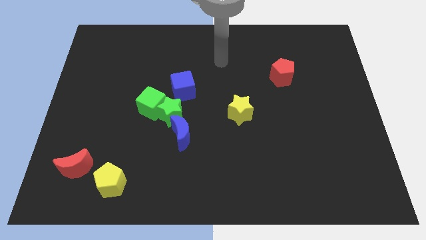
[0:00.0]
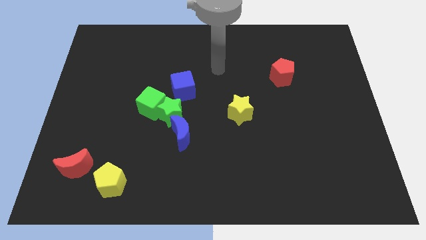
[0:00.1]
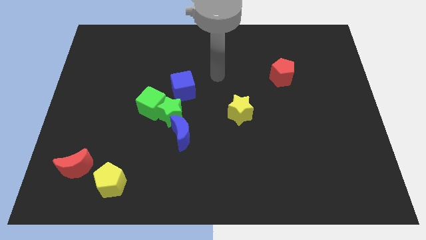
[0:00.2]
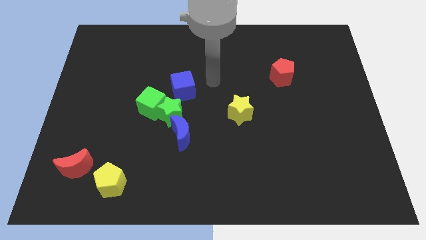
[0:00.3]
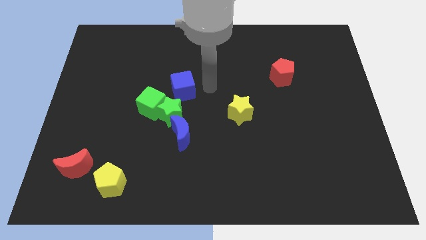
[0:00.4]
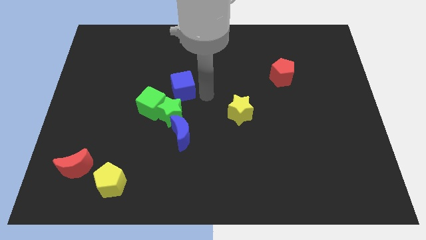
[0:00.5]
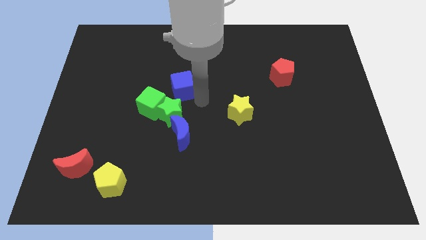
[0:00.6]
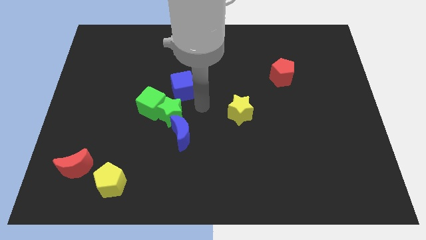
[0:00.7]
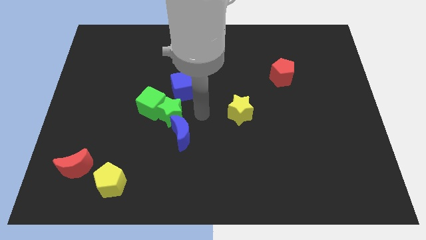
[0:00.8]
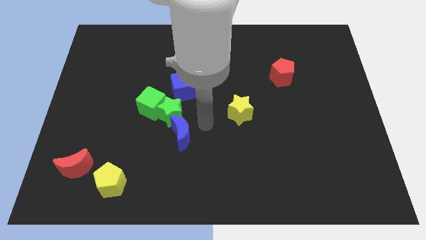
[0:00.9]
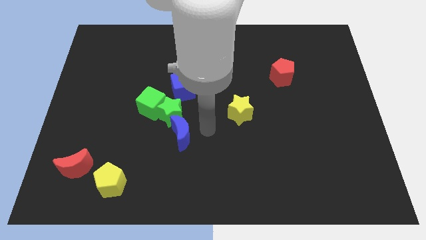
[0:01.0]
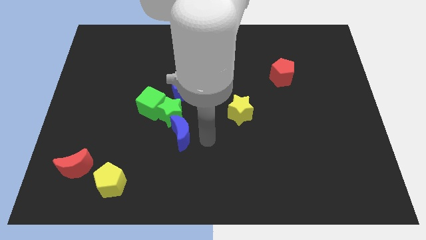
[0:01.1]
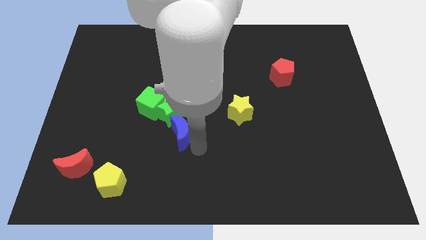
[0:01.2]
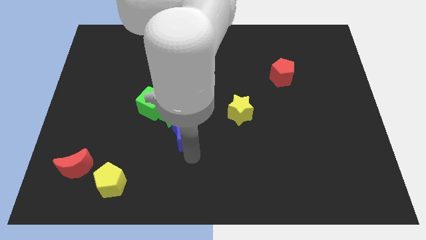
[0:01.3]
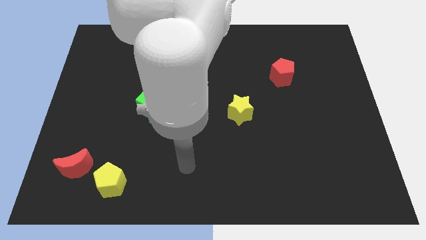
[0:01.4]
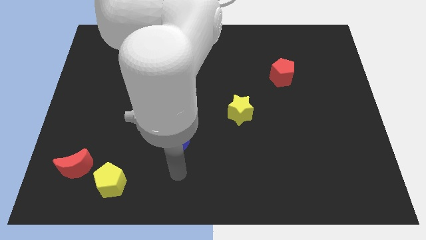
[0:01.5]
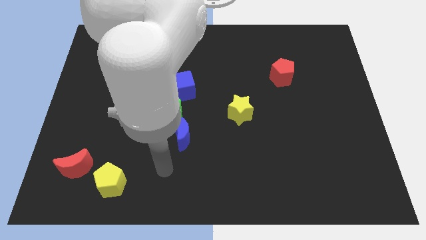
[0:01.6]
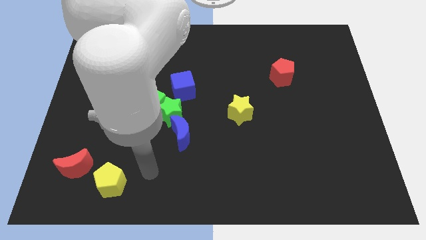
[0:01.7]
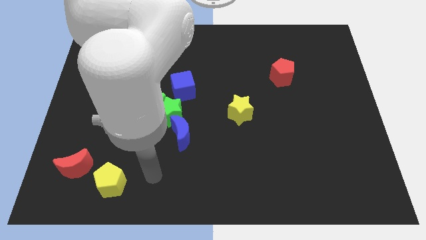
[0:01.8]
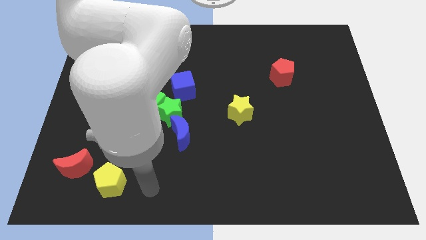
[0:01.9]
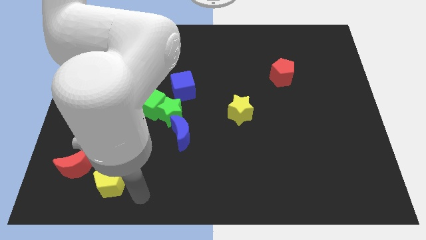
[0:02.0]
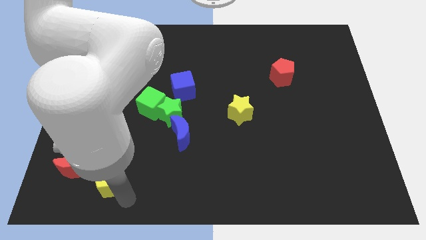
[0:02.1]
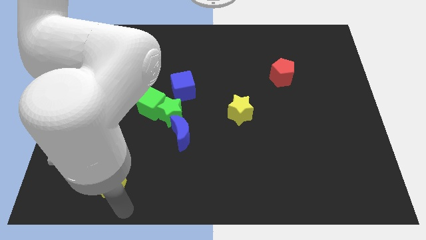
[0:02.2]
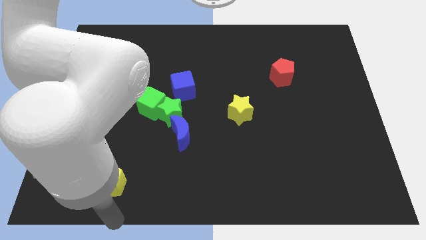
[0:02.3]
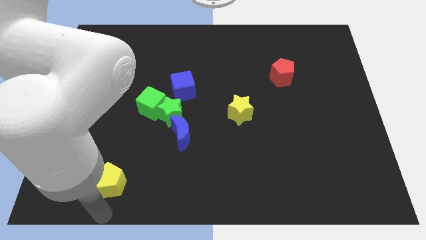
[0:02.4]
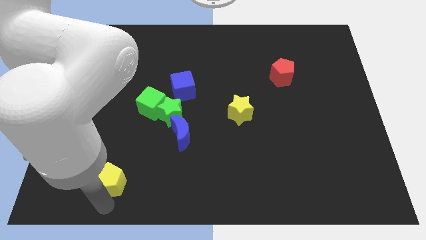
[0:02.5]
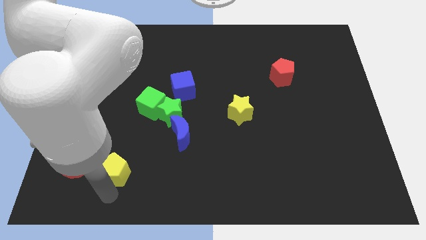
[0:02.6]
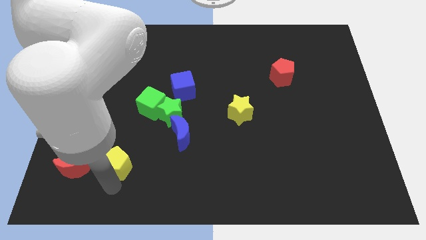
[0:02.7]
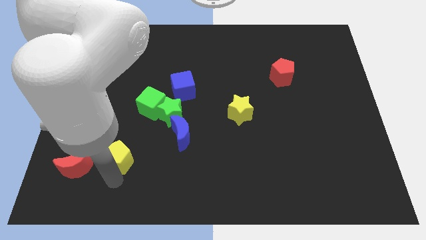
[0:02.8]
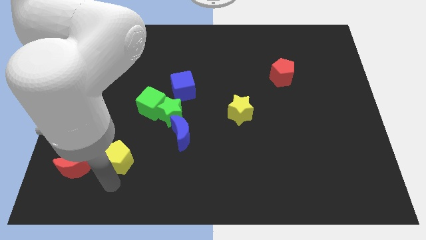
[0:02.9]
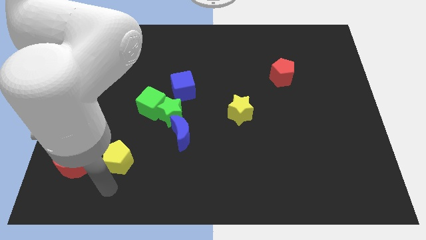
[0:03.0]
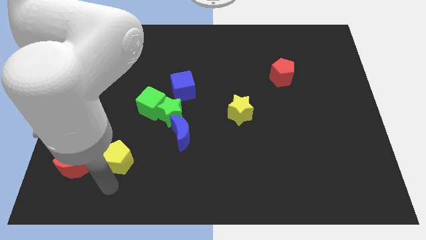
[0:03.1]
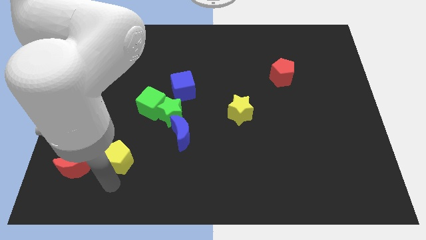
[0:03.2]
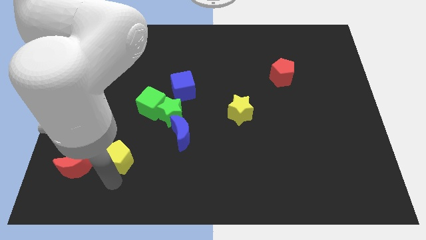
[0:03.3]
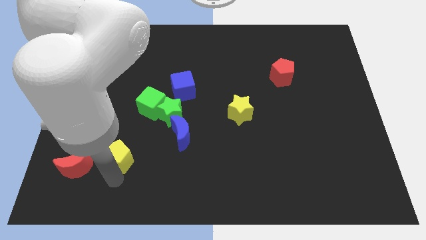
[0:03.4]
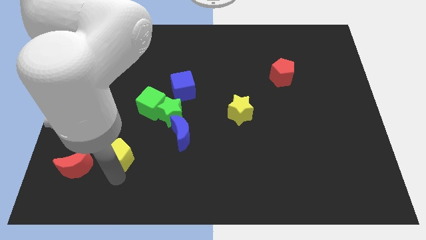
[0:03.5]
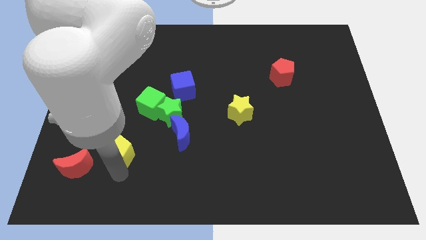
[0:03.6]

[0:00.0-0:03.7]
move the yellow pentagon upwards a little

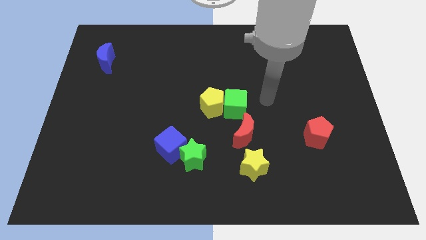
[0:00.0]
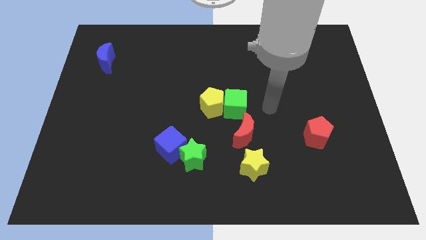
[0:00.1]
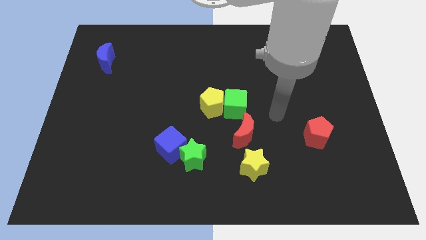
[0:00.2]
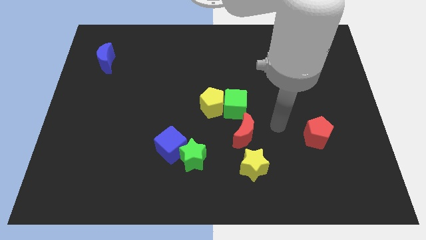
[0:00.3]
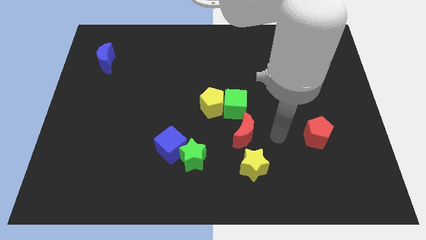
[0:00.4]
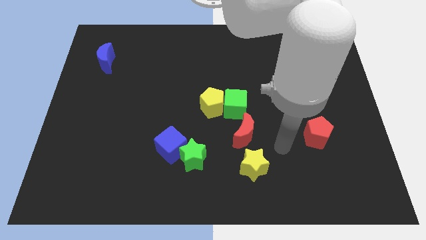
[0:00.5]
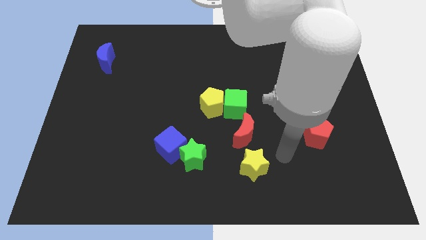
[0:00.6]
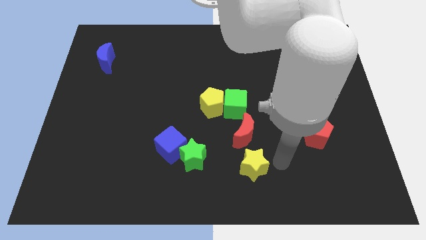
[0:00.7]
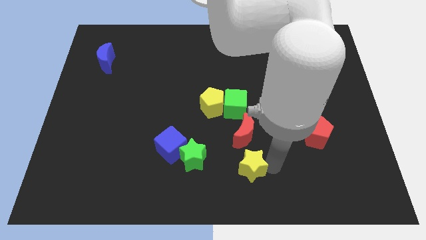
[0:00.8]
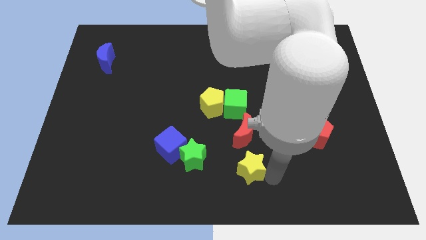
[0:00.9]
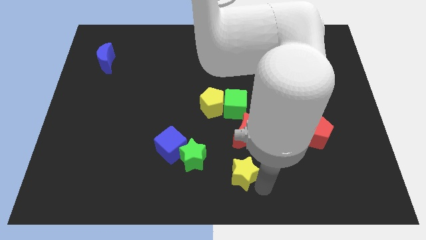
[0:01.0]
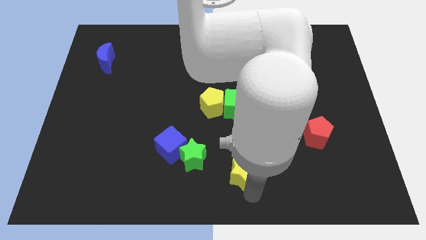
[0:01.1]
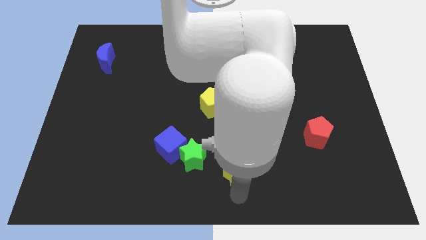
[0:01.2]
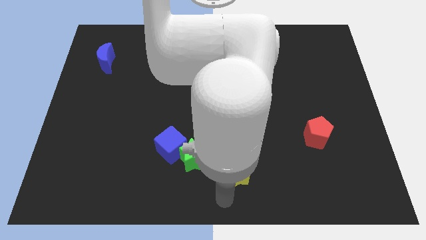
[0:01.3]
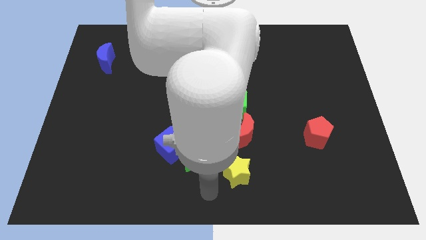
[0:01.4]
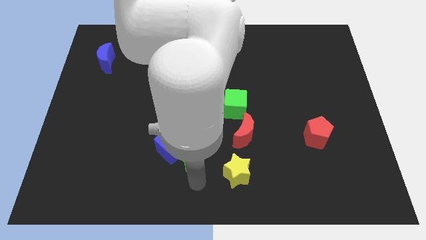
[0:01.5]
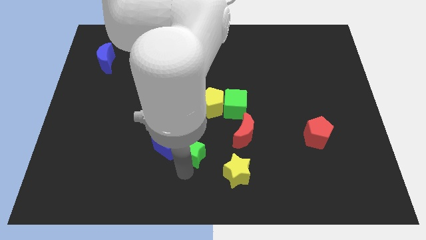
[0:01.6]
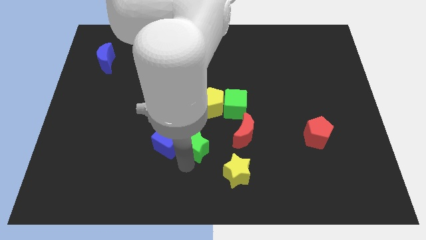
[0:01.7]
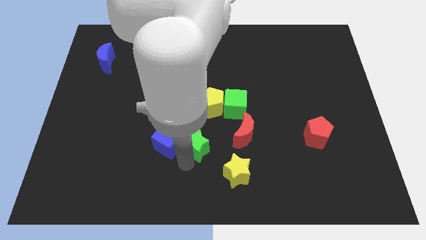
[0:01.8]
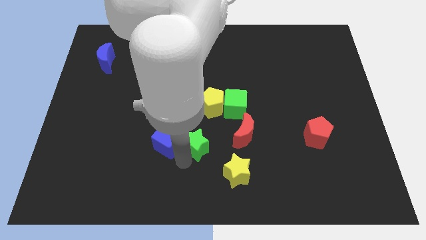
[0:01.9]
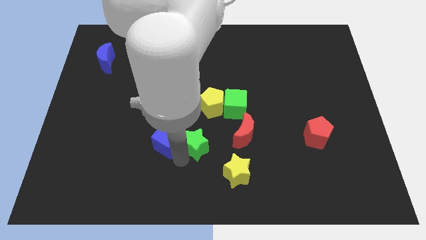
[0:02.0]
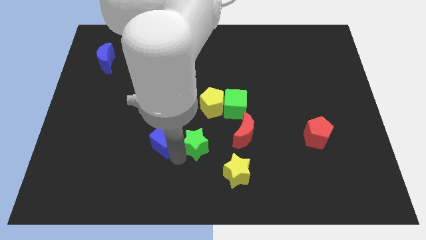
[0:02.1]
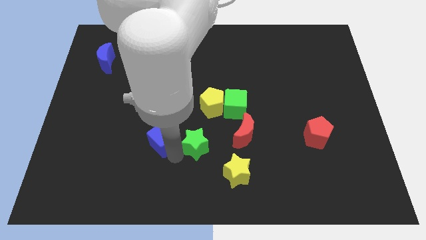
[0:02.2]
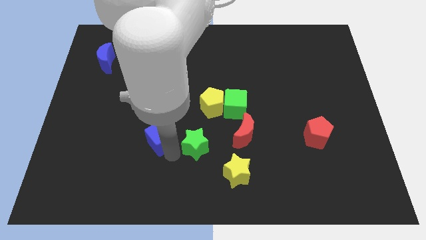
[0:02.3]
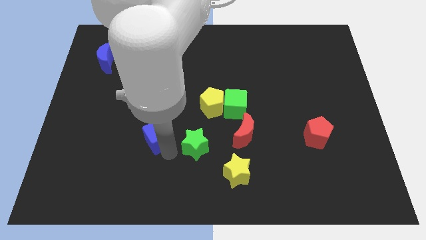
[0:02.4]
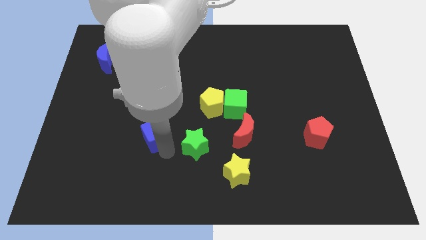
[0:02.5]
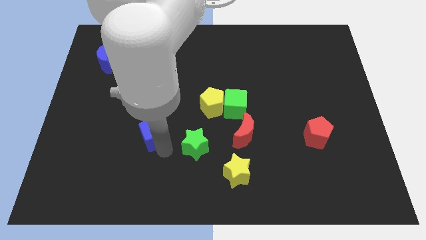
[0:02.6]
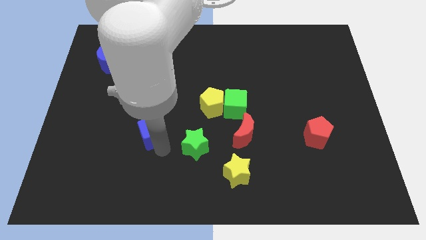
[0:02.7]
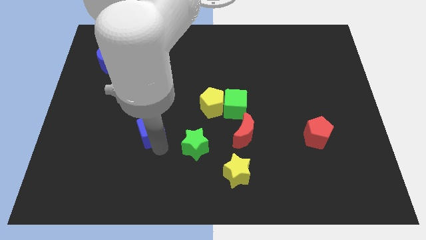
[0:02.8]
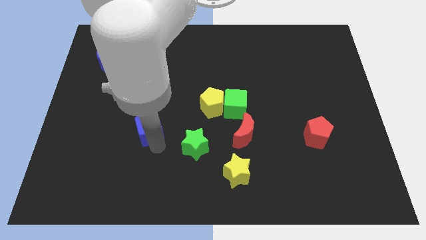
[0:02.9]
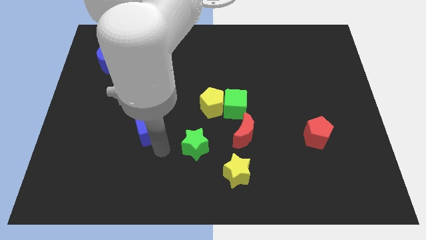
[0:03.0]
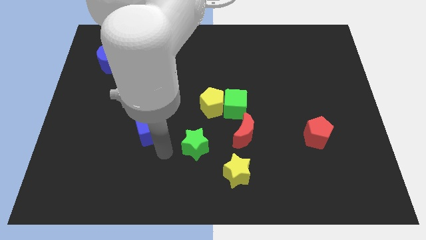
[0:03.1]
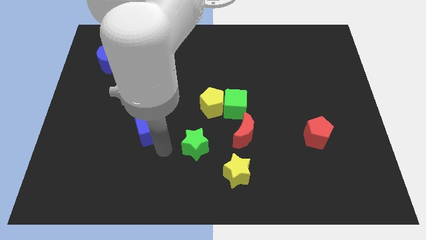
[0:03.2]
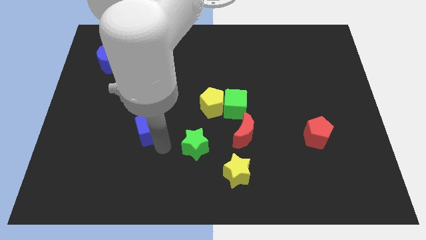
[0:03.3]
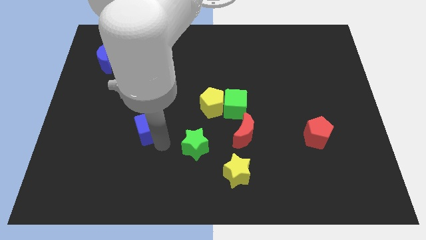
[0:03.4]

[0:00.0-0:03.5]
slightly push the blue cube upwards and left diagonally

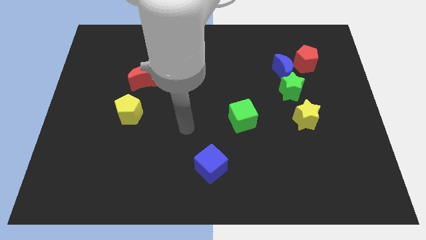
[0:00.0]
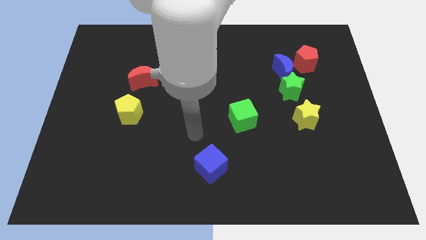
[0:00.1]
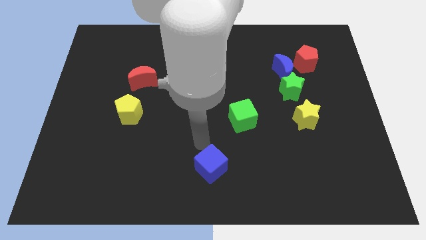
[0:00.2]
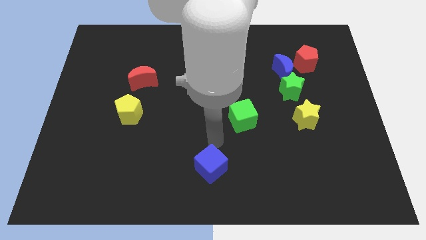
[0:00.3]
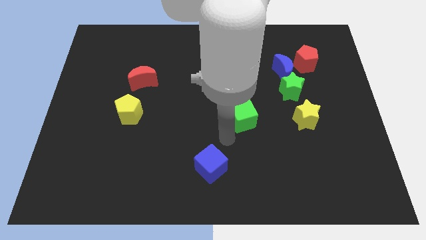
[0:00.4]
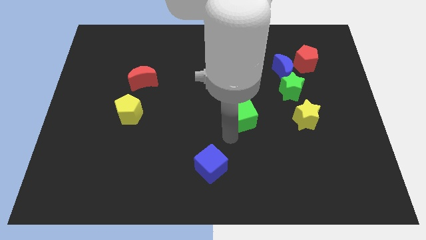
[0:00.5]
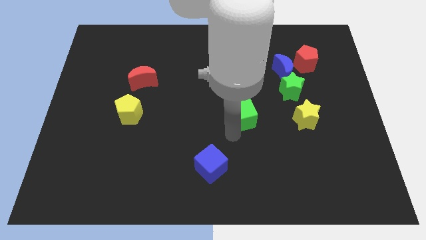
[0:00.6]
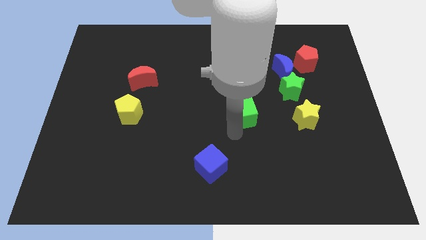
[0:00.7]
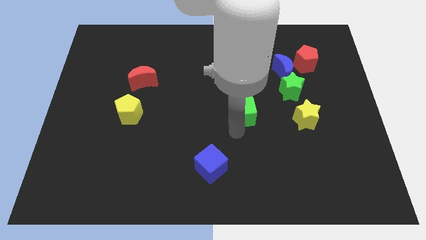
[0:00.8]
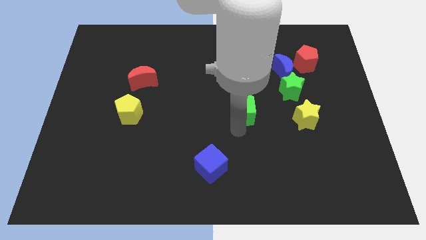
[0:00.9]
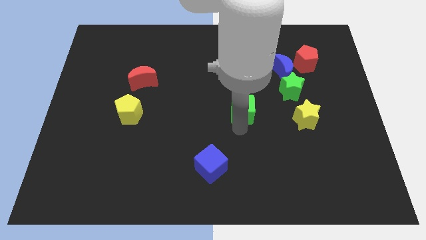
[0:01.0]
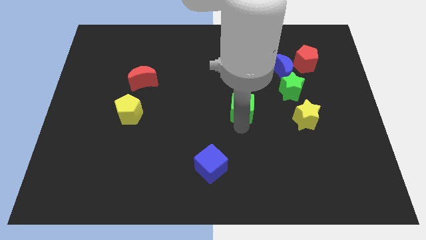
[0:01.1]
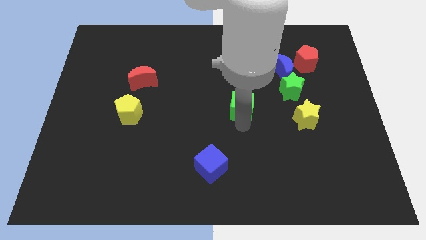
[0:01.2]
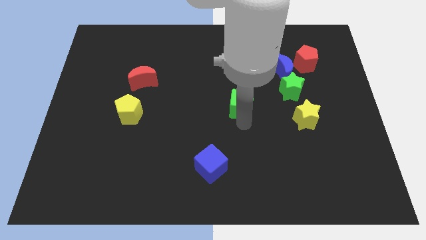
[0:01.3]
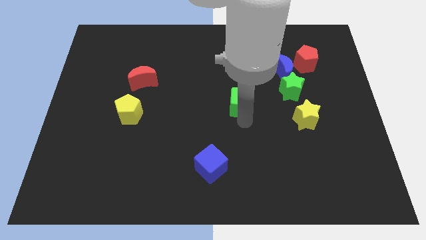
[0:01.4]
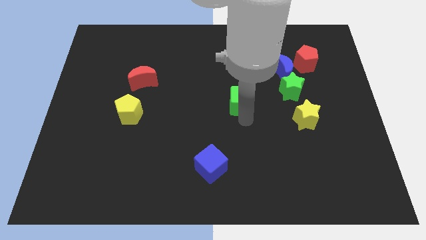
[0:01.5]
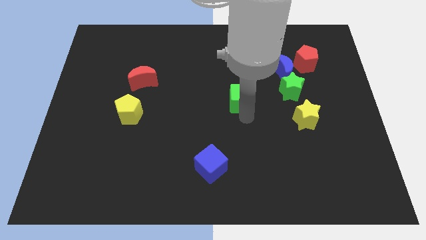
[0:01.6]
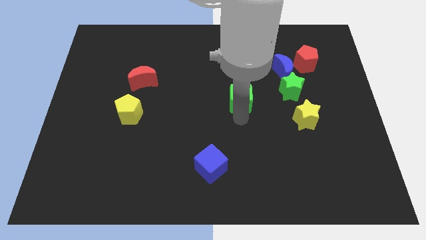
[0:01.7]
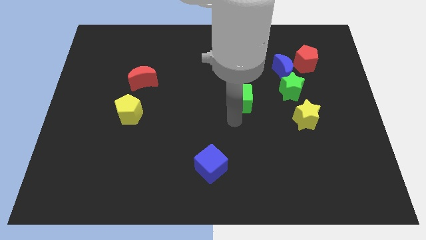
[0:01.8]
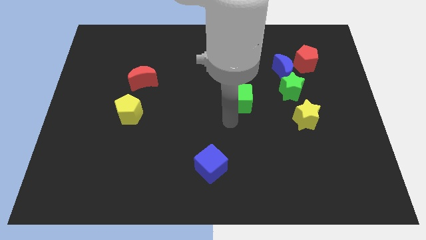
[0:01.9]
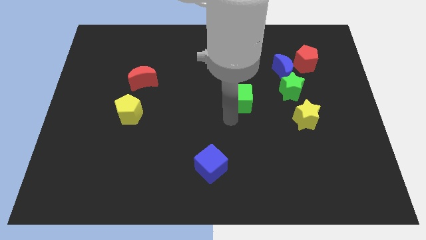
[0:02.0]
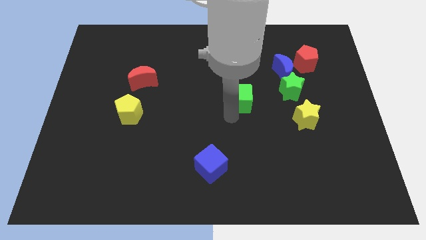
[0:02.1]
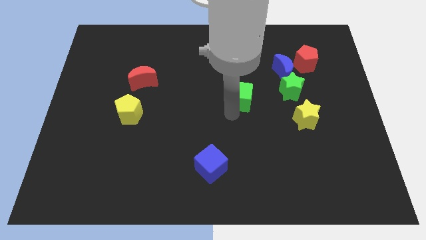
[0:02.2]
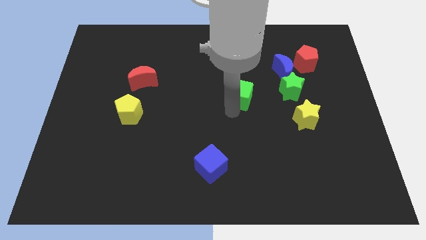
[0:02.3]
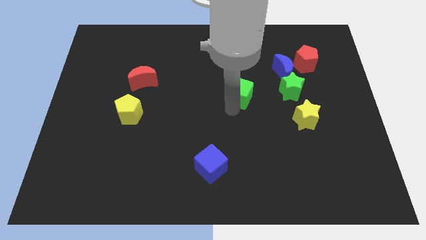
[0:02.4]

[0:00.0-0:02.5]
push the green cube upwards somewhat
